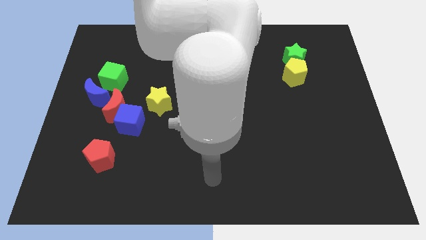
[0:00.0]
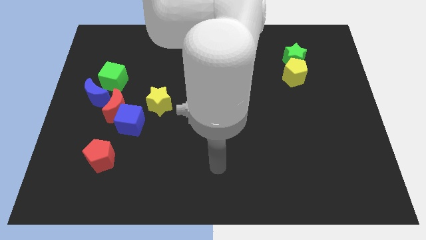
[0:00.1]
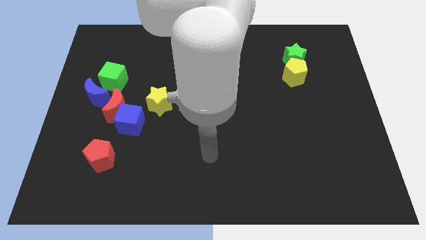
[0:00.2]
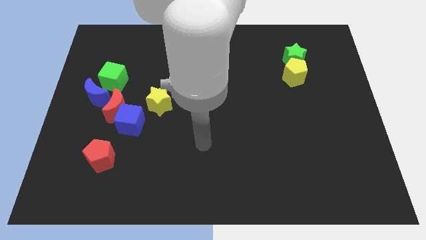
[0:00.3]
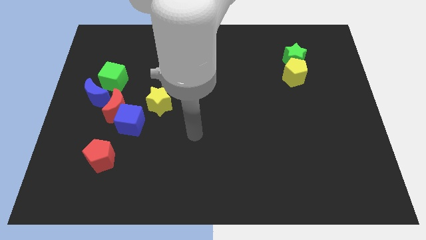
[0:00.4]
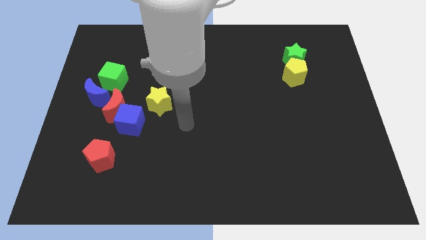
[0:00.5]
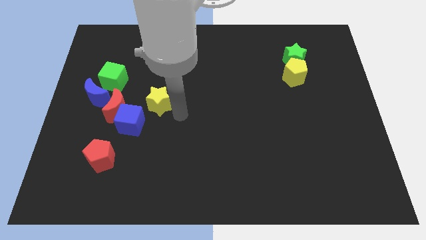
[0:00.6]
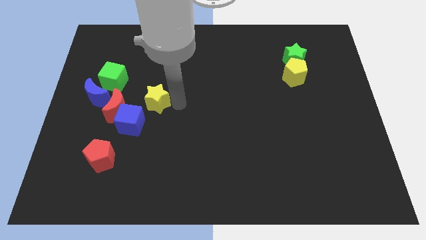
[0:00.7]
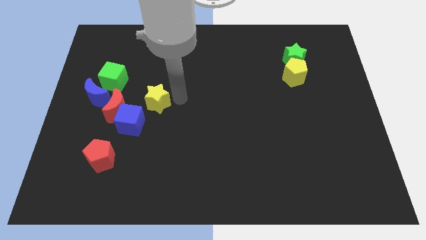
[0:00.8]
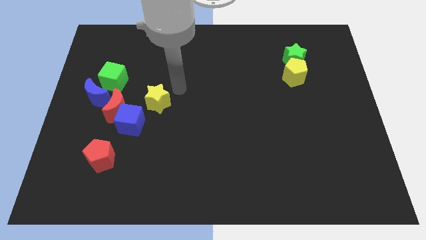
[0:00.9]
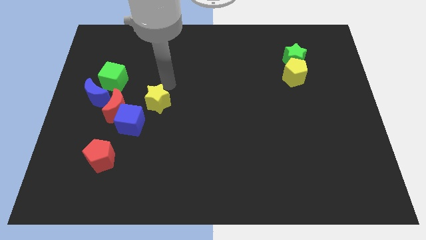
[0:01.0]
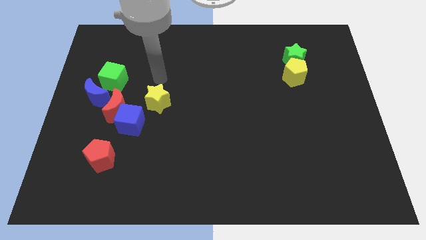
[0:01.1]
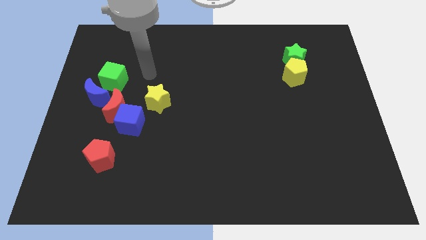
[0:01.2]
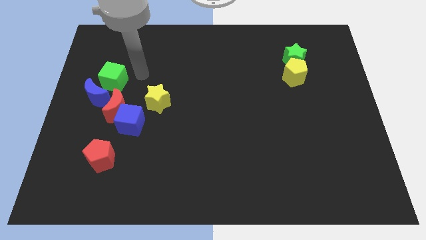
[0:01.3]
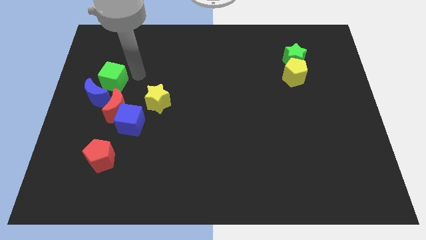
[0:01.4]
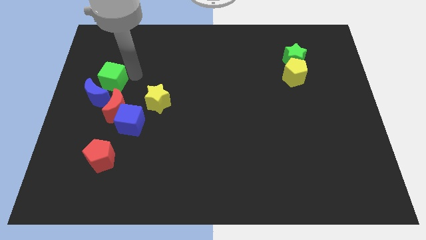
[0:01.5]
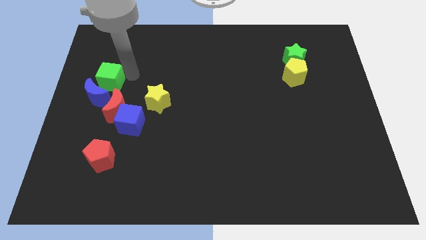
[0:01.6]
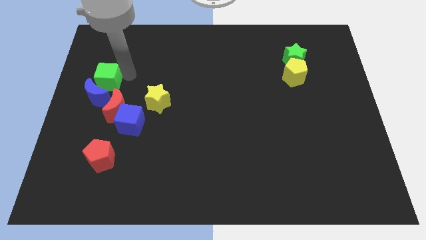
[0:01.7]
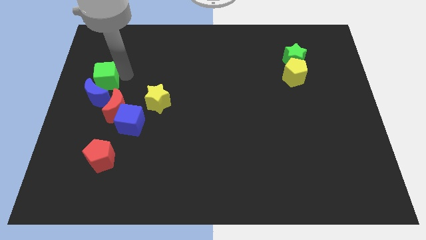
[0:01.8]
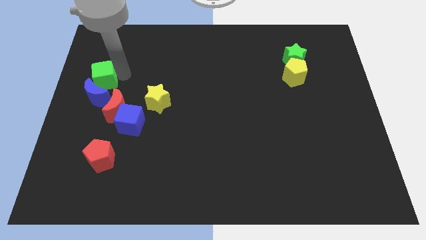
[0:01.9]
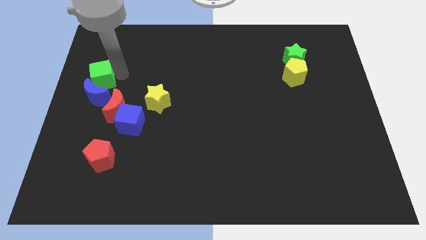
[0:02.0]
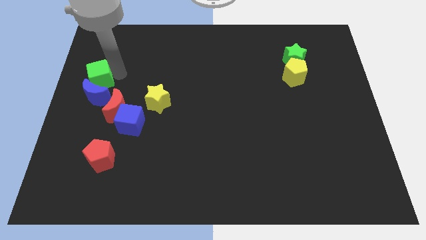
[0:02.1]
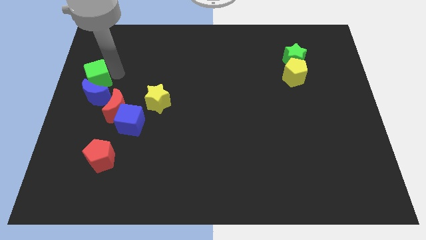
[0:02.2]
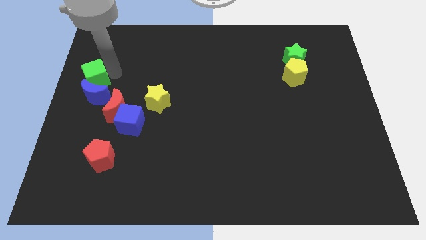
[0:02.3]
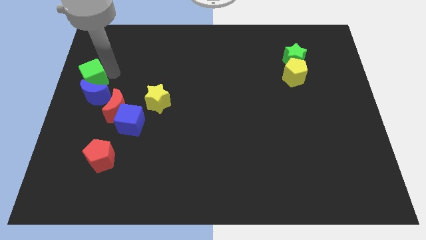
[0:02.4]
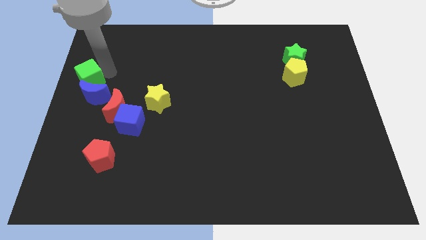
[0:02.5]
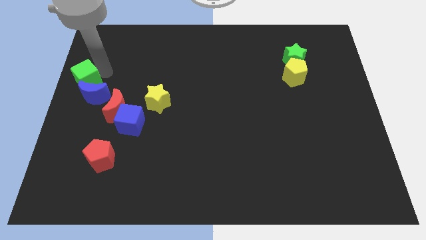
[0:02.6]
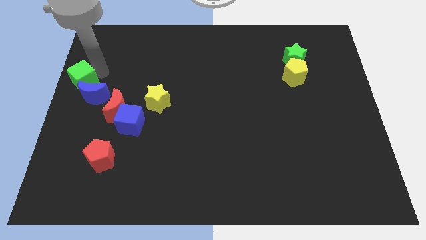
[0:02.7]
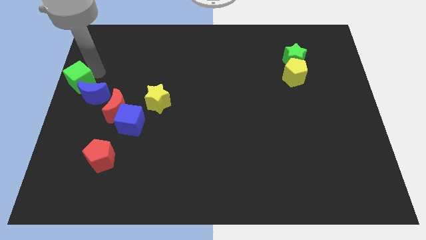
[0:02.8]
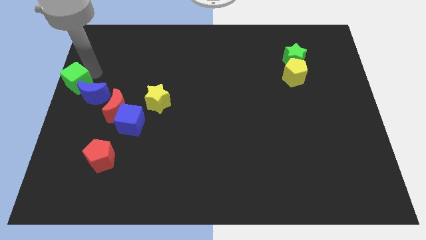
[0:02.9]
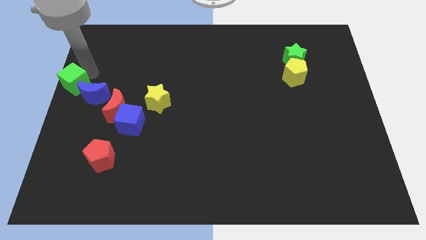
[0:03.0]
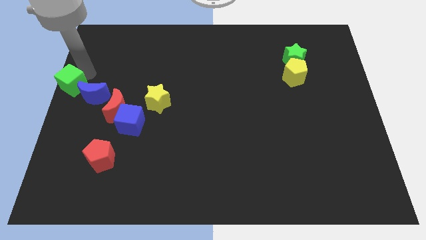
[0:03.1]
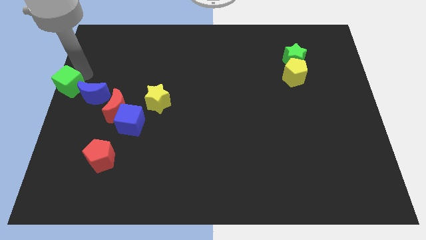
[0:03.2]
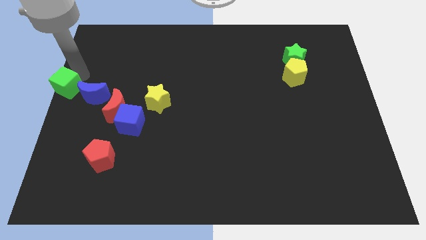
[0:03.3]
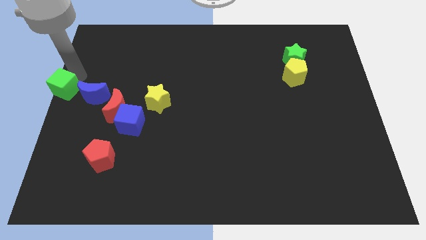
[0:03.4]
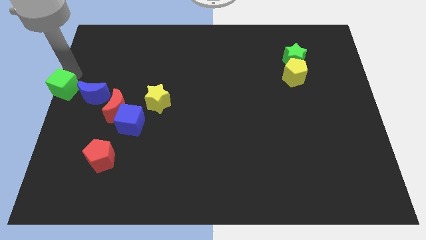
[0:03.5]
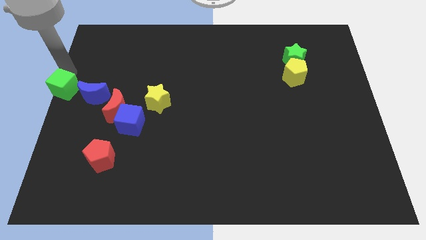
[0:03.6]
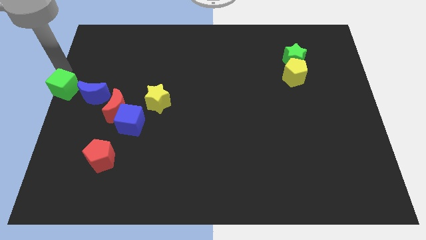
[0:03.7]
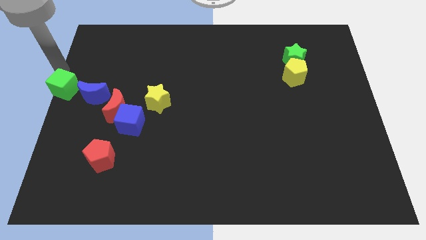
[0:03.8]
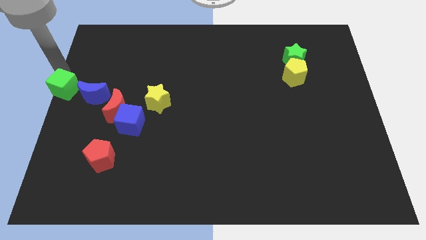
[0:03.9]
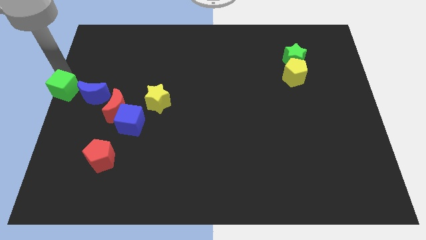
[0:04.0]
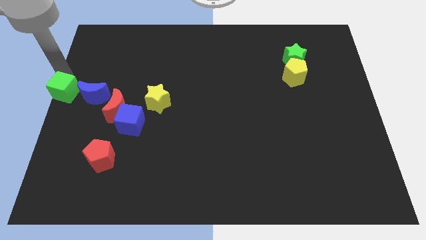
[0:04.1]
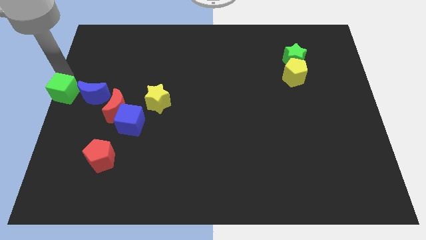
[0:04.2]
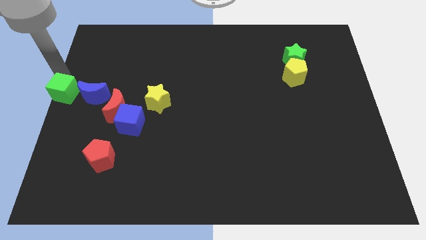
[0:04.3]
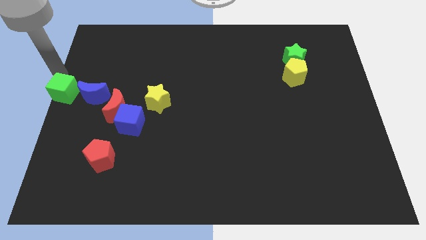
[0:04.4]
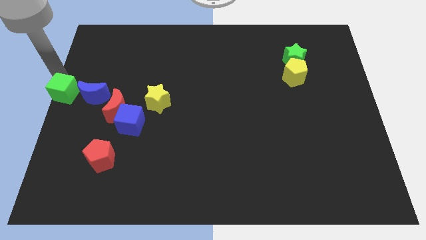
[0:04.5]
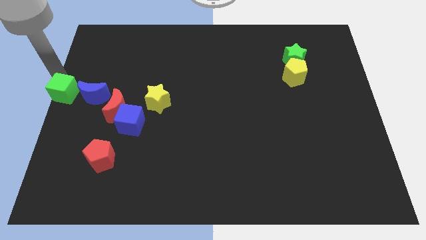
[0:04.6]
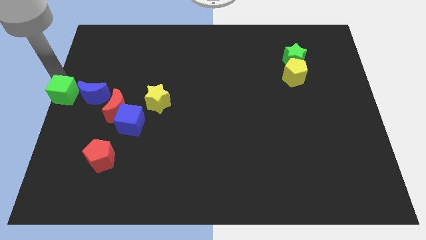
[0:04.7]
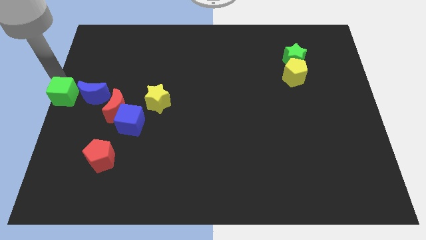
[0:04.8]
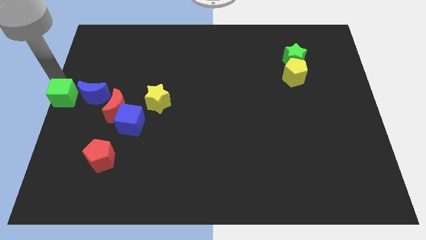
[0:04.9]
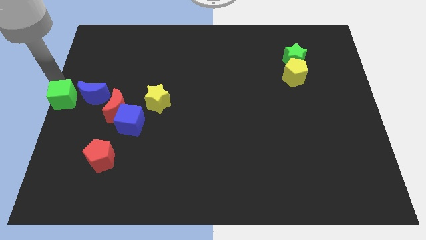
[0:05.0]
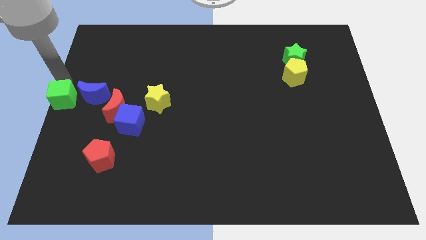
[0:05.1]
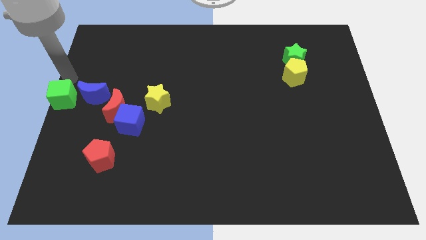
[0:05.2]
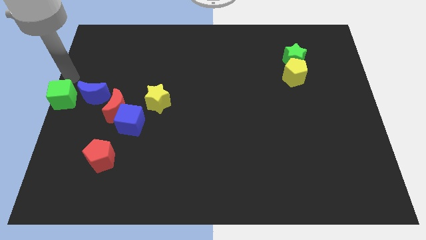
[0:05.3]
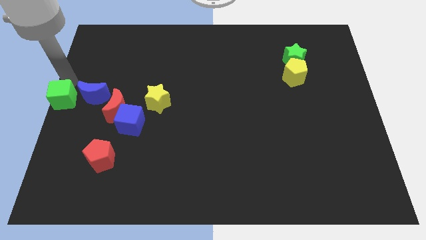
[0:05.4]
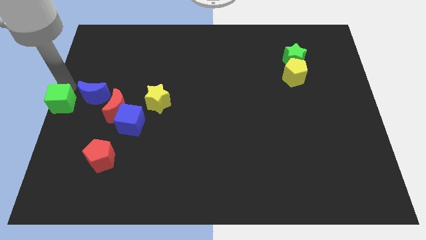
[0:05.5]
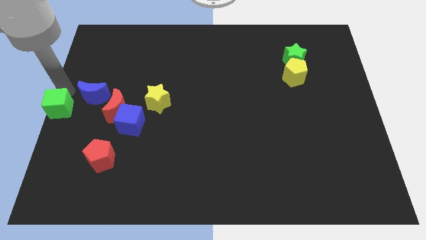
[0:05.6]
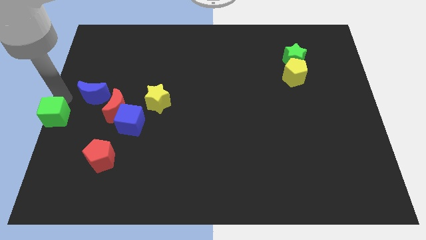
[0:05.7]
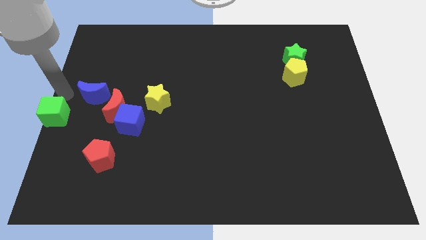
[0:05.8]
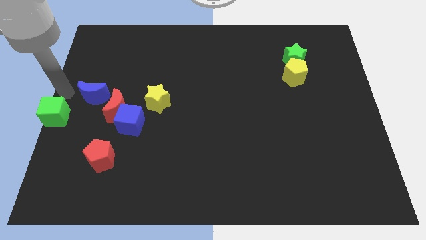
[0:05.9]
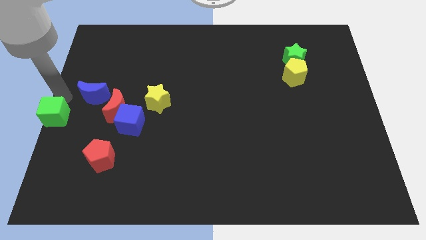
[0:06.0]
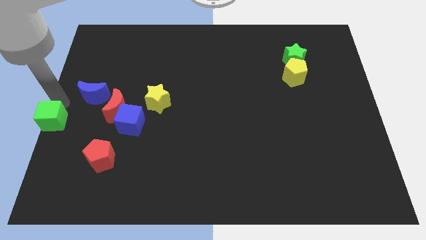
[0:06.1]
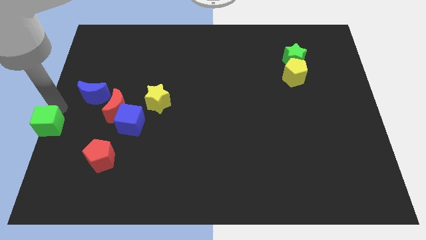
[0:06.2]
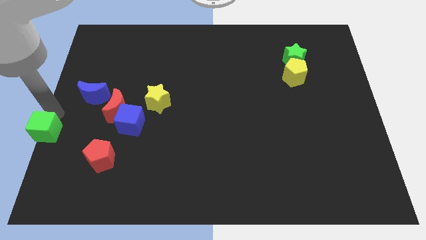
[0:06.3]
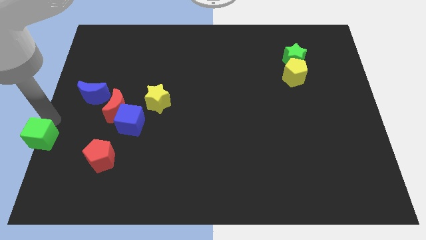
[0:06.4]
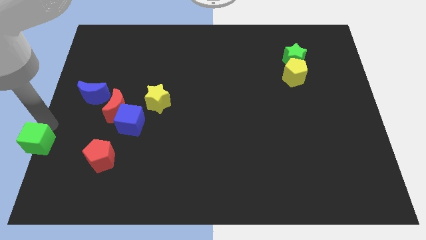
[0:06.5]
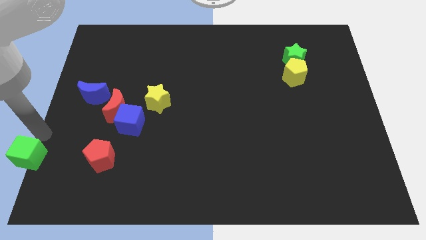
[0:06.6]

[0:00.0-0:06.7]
move the green cube to the bottom left

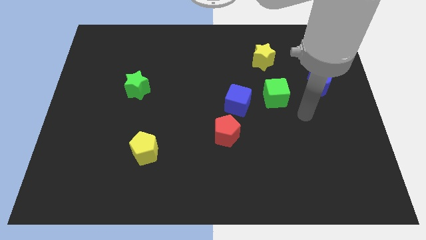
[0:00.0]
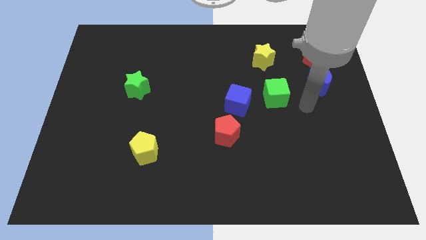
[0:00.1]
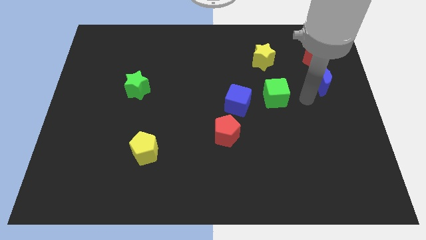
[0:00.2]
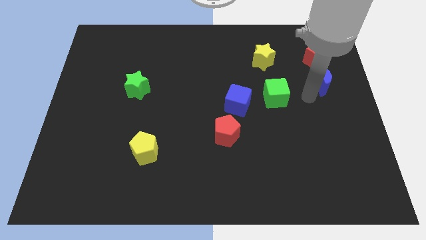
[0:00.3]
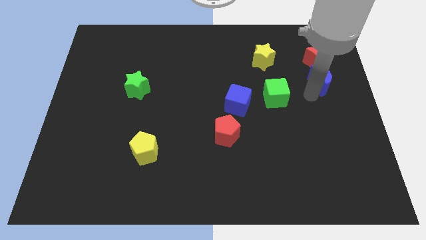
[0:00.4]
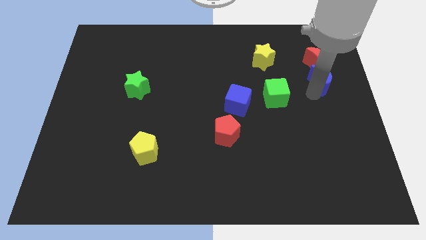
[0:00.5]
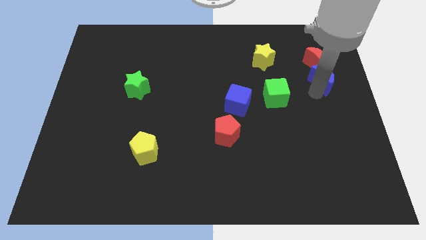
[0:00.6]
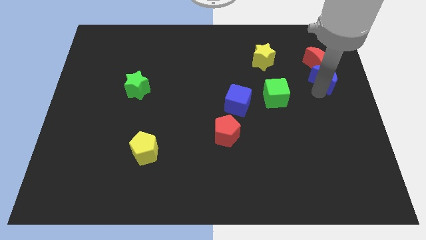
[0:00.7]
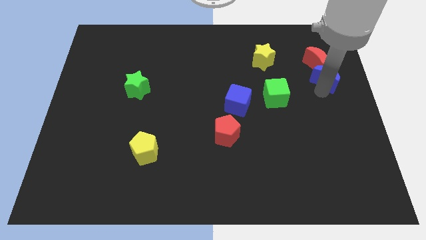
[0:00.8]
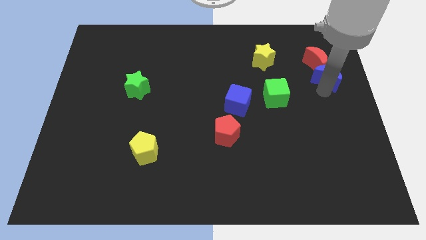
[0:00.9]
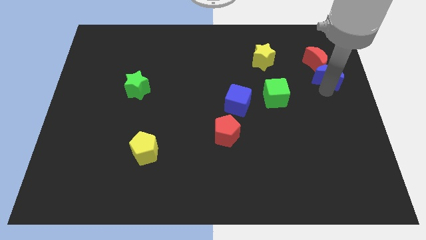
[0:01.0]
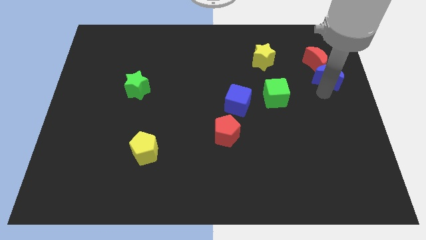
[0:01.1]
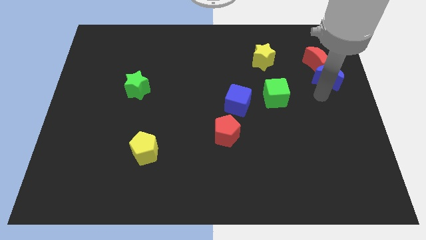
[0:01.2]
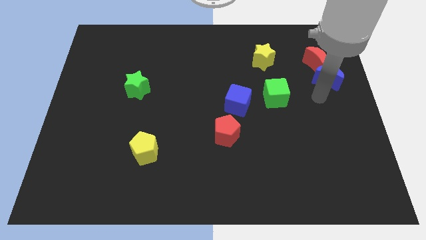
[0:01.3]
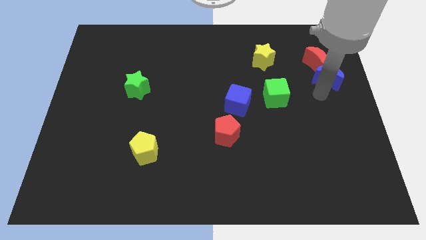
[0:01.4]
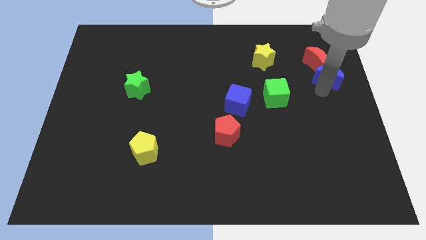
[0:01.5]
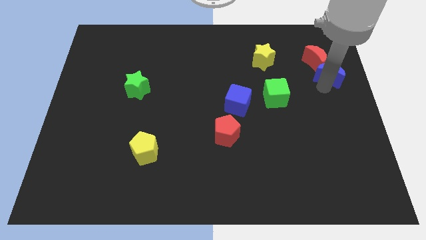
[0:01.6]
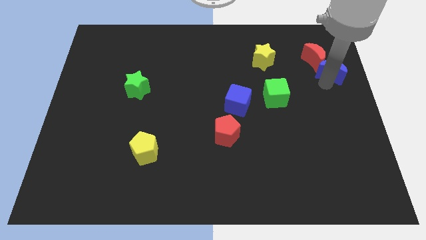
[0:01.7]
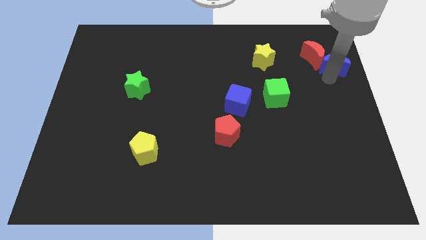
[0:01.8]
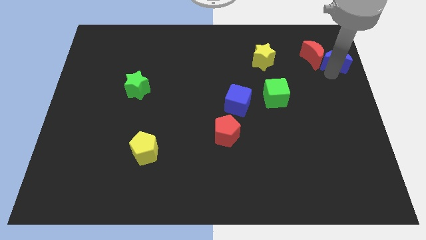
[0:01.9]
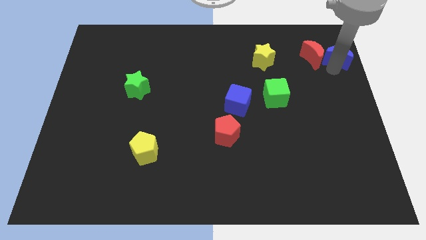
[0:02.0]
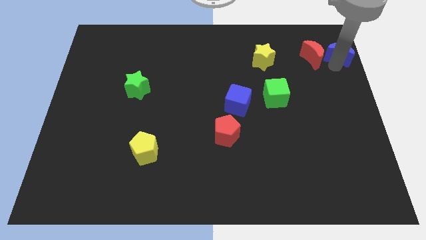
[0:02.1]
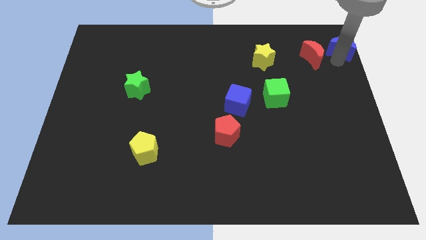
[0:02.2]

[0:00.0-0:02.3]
put the blue moon to the top right of the board
